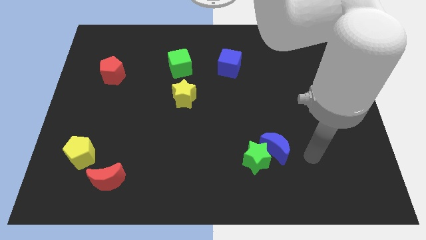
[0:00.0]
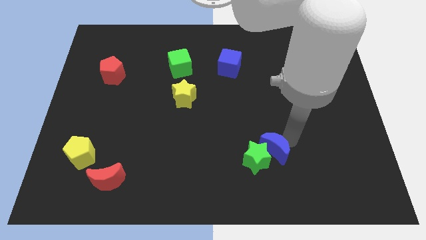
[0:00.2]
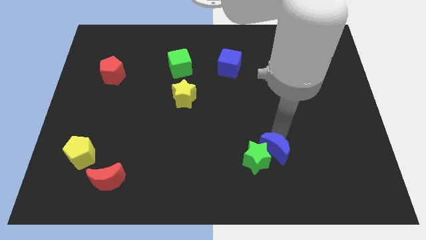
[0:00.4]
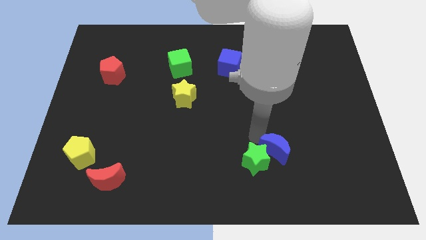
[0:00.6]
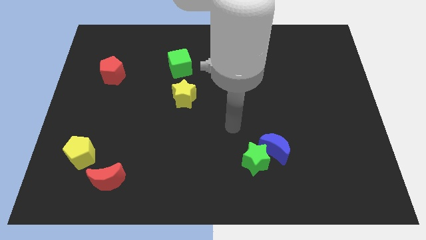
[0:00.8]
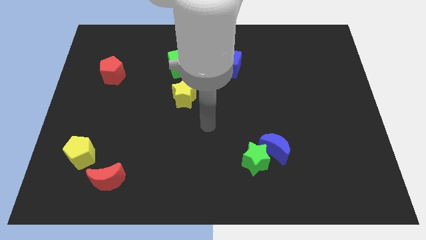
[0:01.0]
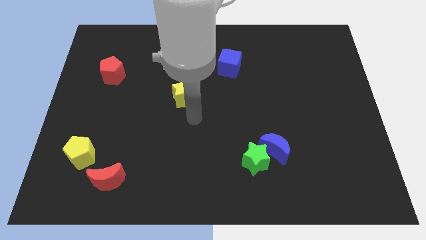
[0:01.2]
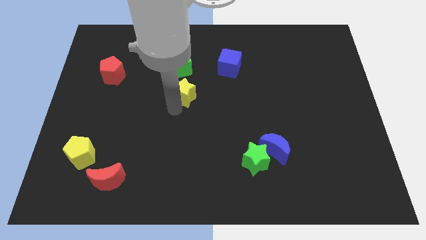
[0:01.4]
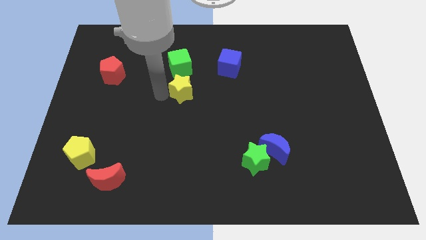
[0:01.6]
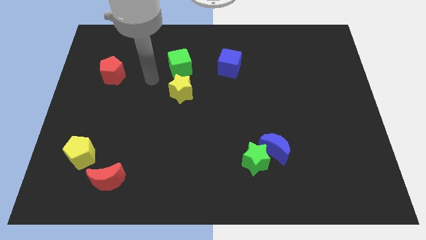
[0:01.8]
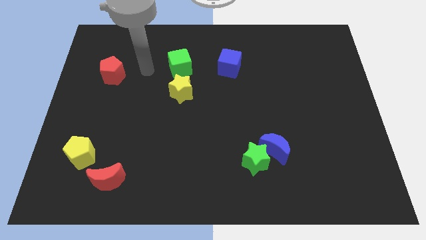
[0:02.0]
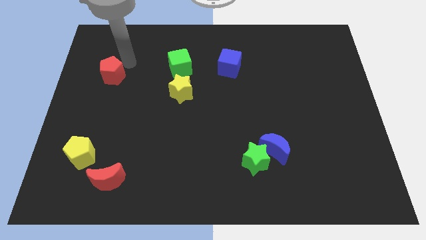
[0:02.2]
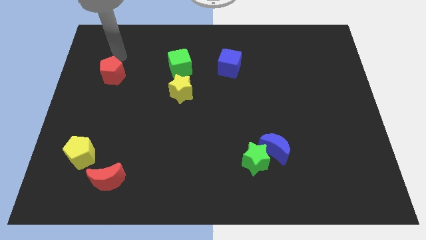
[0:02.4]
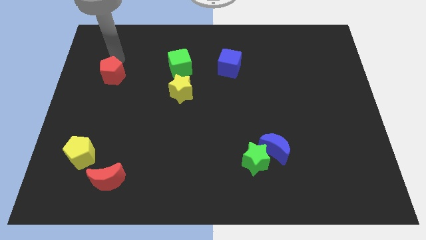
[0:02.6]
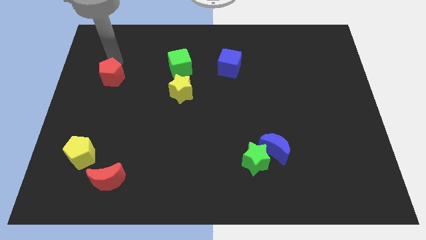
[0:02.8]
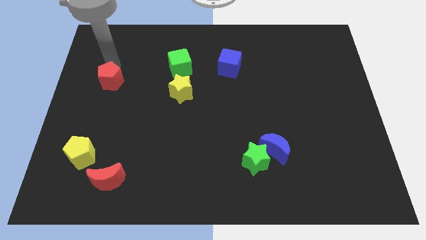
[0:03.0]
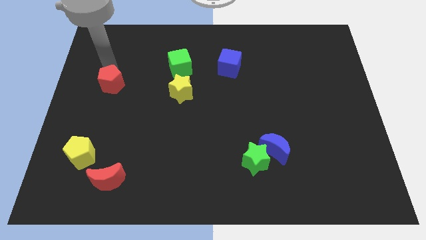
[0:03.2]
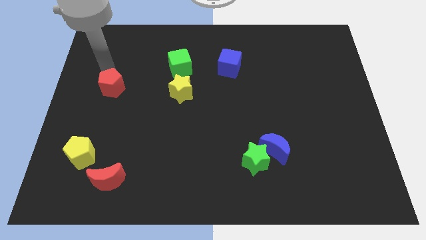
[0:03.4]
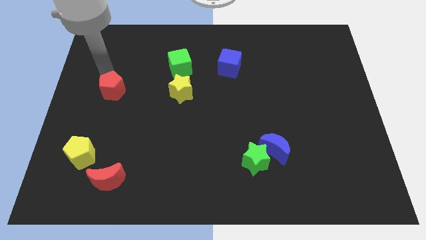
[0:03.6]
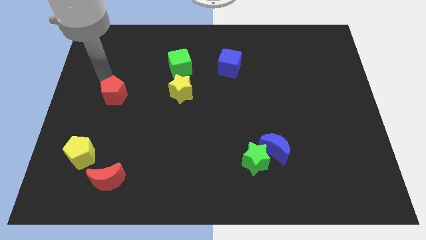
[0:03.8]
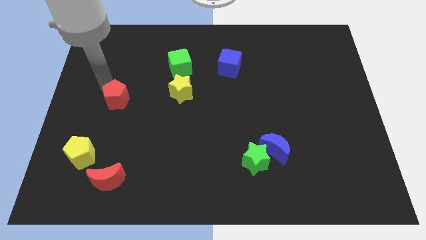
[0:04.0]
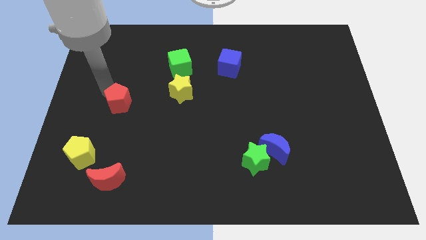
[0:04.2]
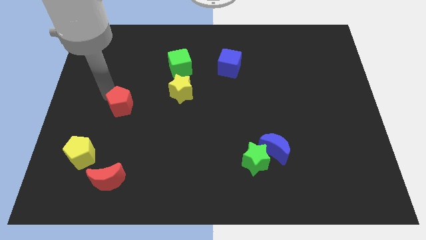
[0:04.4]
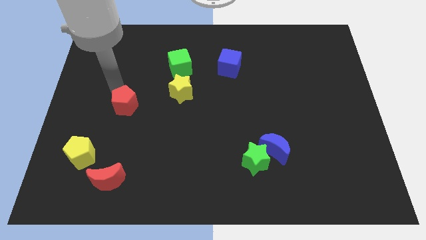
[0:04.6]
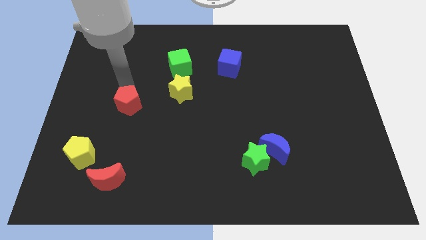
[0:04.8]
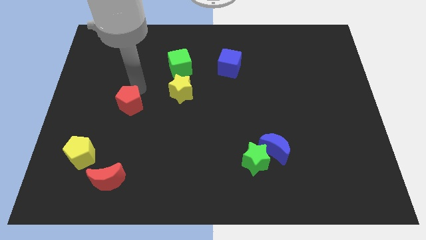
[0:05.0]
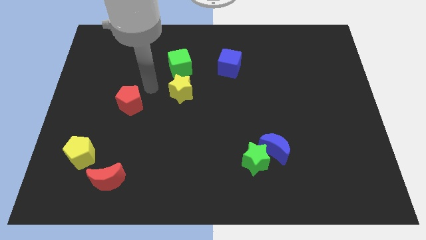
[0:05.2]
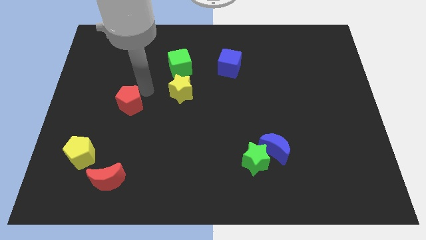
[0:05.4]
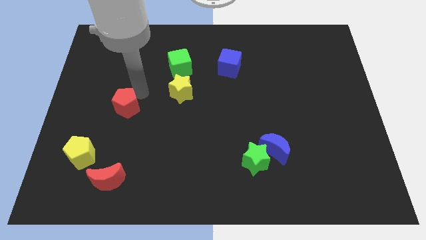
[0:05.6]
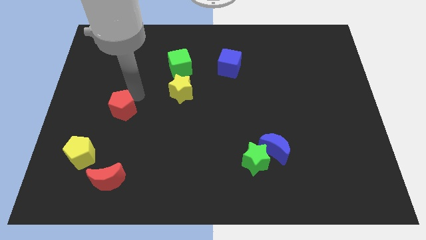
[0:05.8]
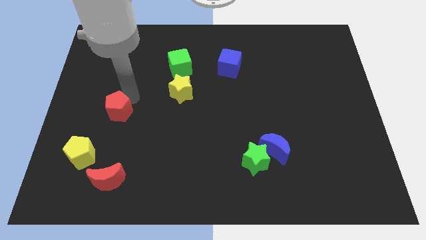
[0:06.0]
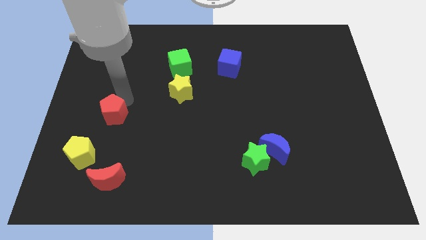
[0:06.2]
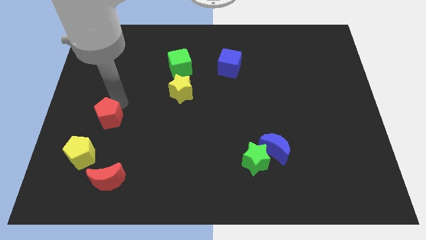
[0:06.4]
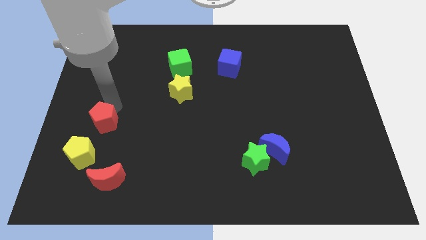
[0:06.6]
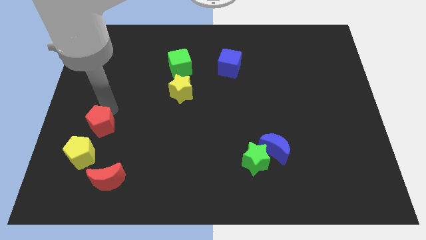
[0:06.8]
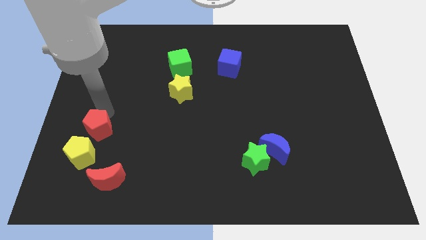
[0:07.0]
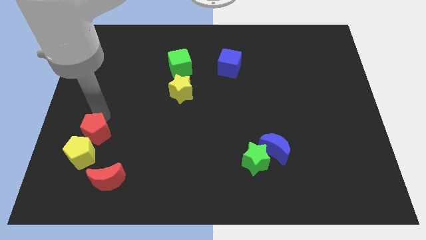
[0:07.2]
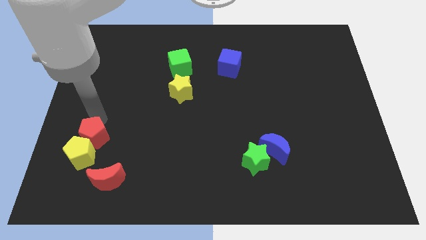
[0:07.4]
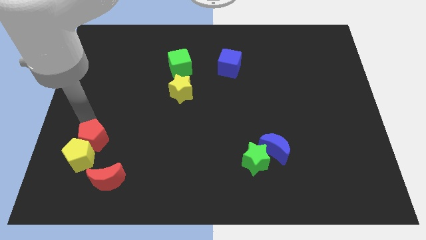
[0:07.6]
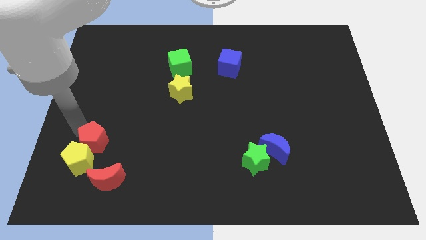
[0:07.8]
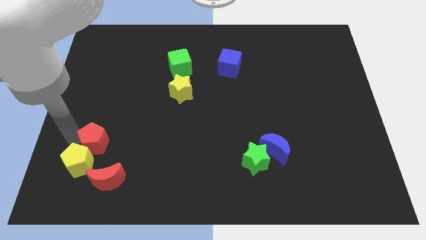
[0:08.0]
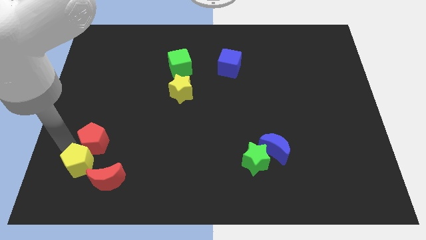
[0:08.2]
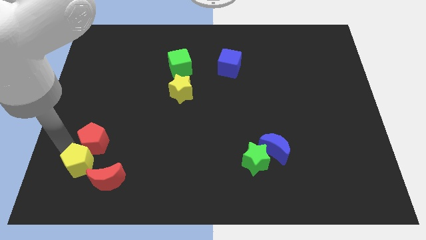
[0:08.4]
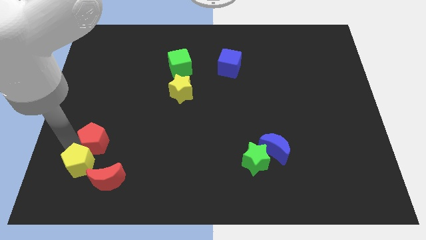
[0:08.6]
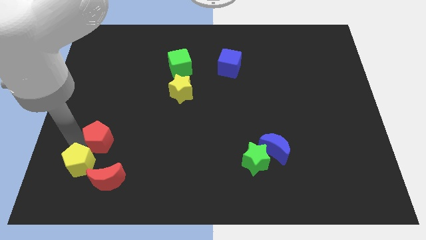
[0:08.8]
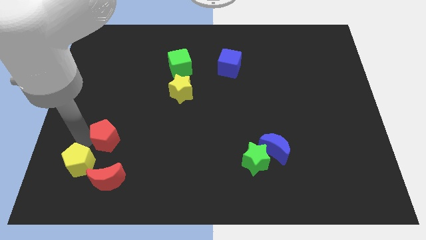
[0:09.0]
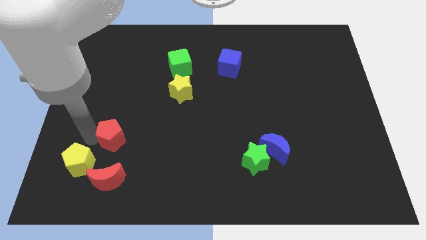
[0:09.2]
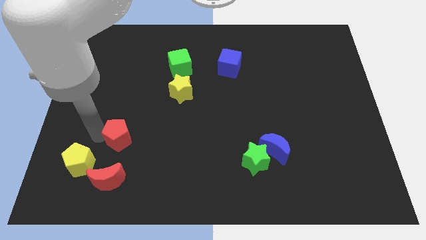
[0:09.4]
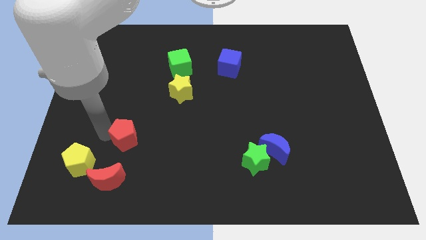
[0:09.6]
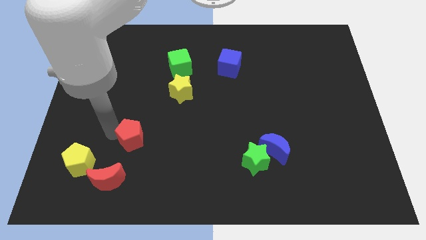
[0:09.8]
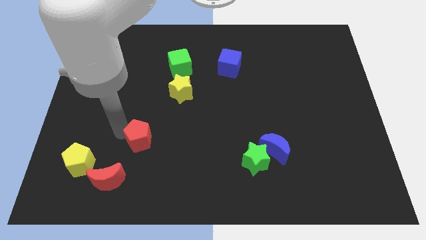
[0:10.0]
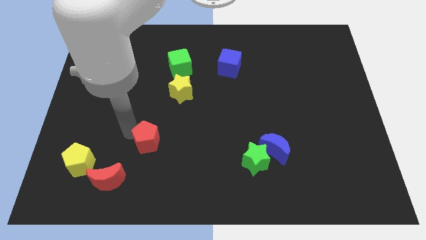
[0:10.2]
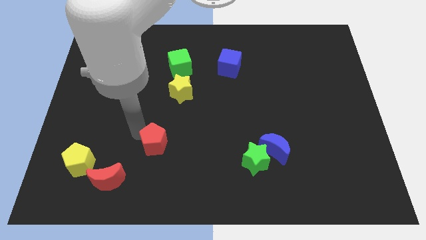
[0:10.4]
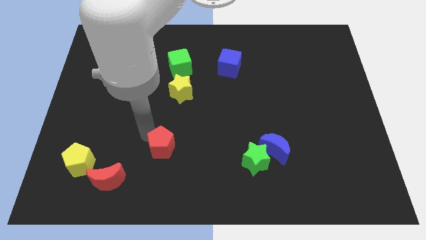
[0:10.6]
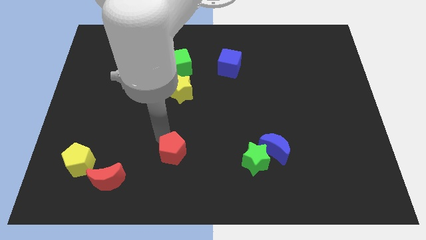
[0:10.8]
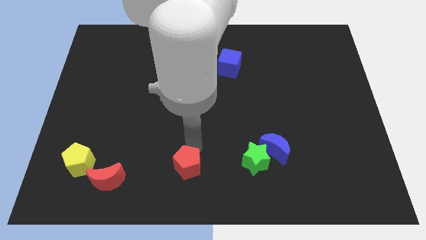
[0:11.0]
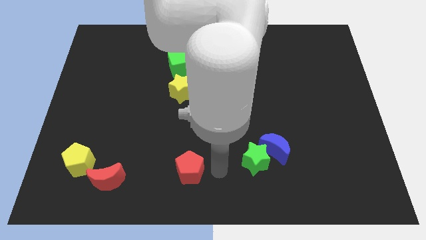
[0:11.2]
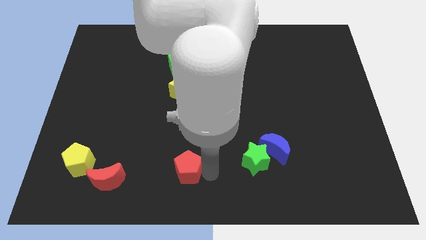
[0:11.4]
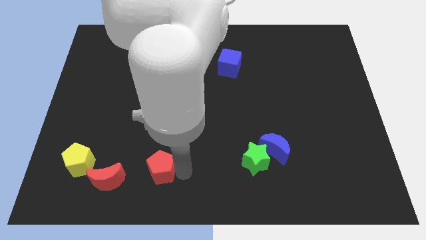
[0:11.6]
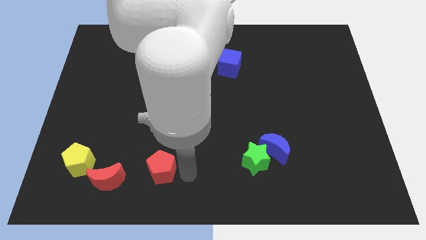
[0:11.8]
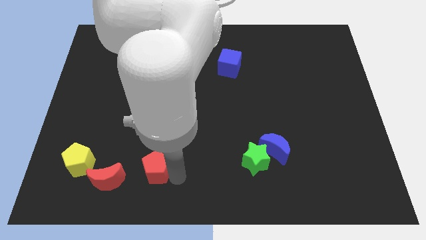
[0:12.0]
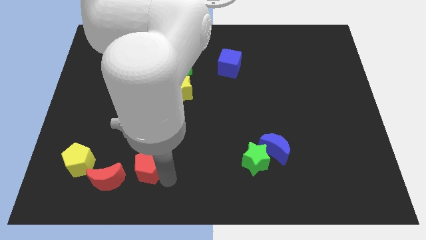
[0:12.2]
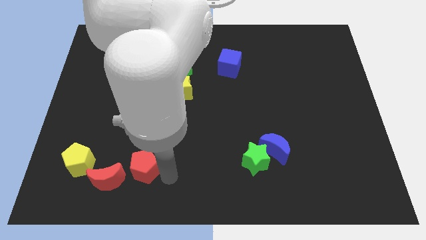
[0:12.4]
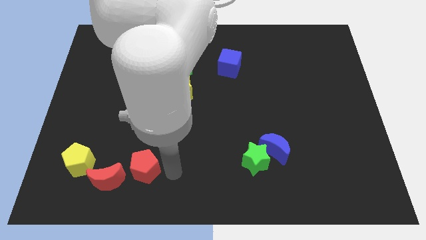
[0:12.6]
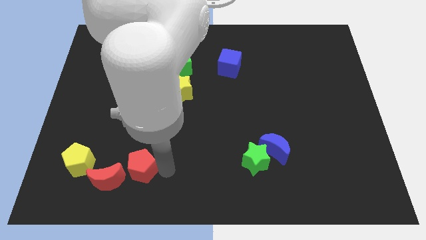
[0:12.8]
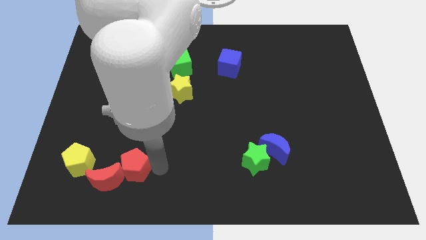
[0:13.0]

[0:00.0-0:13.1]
put the red pentagon towards the red moon
